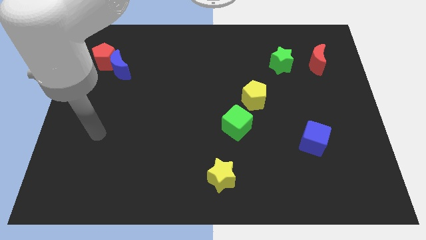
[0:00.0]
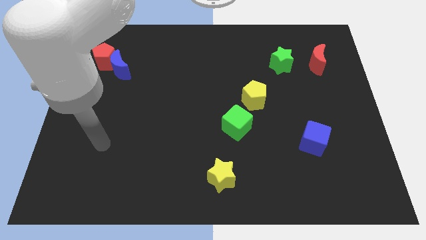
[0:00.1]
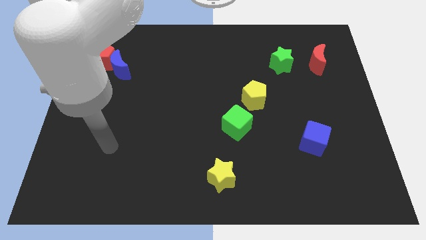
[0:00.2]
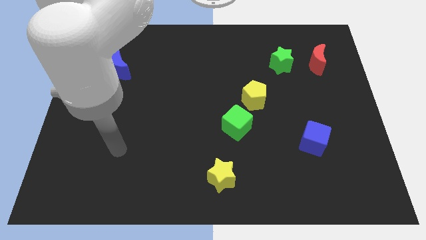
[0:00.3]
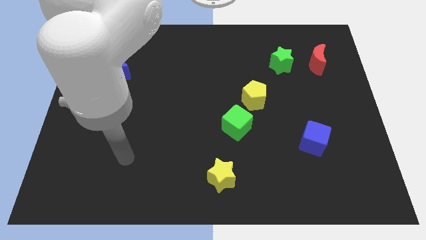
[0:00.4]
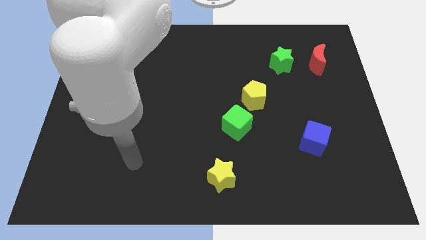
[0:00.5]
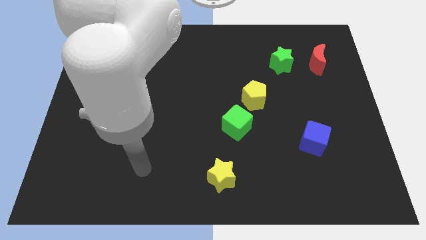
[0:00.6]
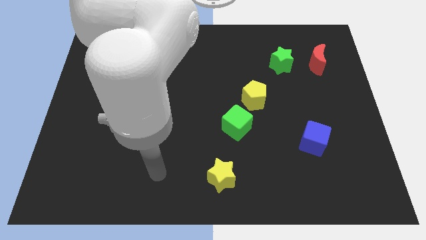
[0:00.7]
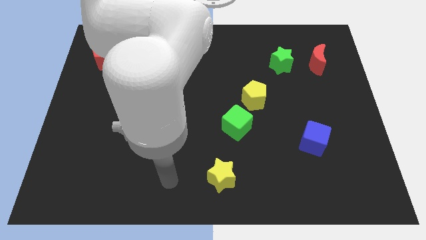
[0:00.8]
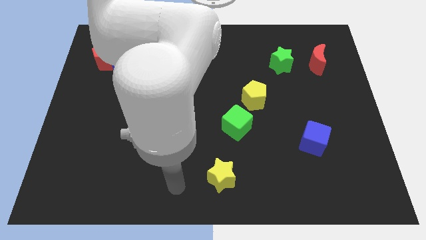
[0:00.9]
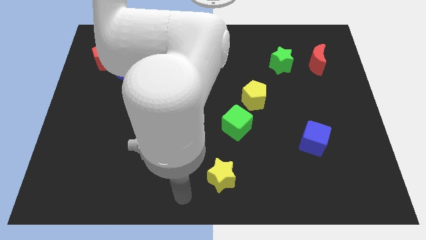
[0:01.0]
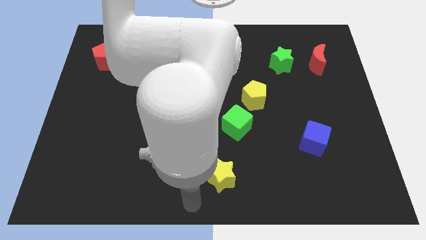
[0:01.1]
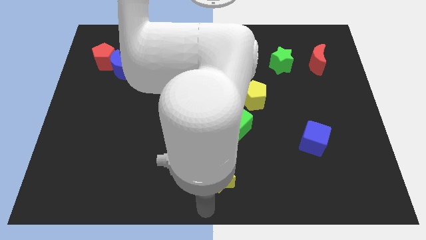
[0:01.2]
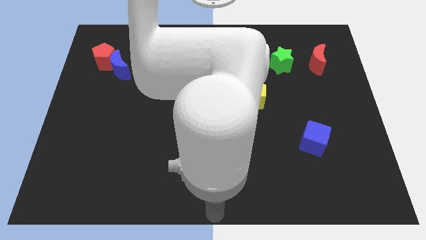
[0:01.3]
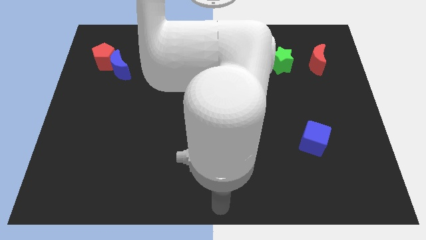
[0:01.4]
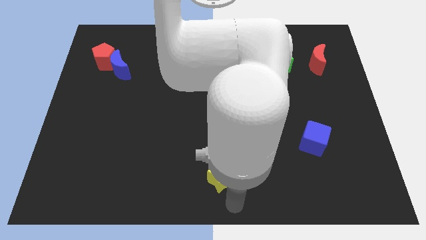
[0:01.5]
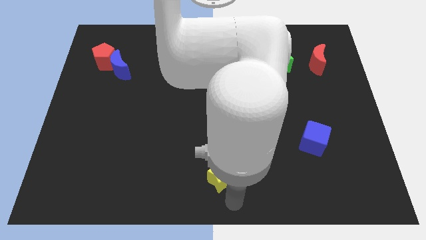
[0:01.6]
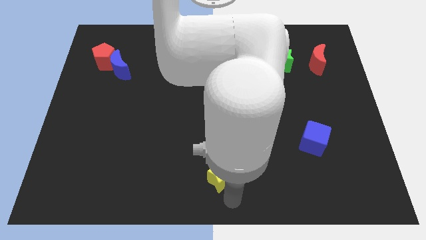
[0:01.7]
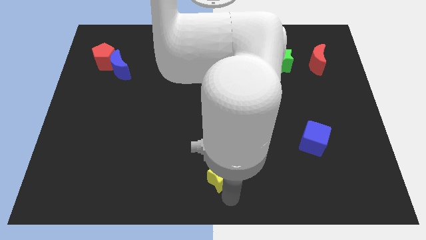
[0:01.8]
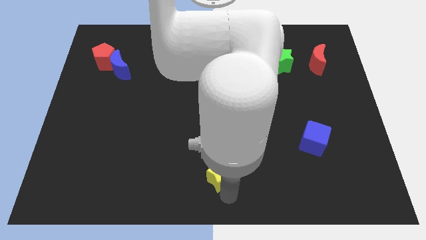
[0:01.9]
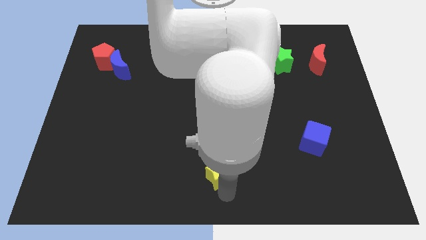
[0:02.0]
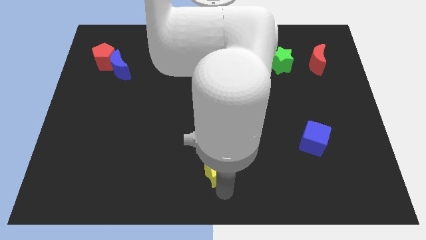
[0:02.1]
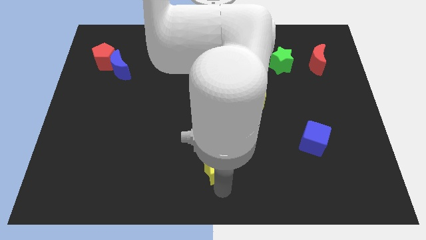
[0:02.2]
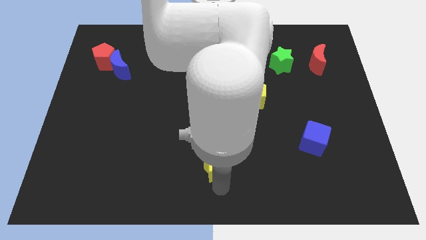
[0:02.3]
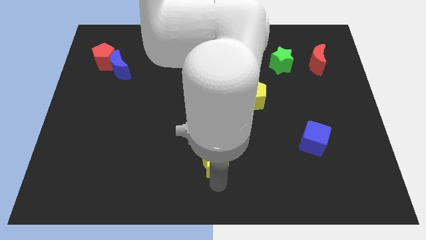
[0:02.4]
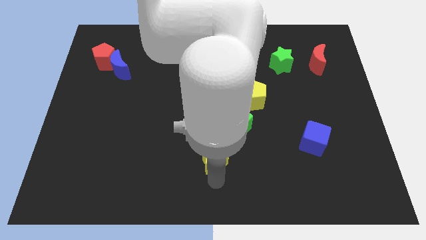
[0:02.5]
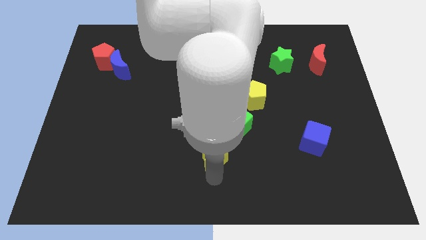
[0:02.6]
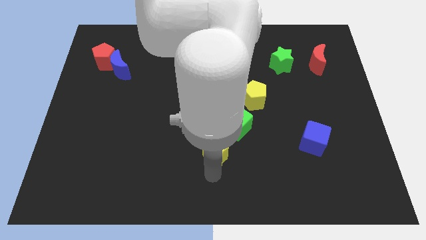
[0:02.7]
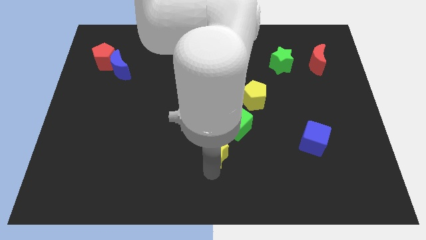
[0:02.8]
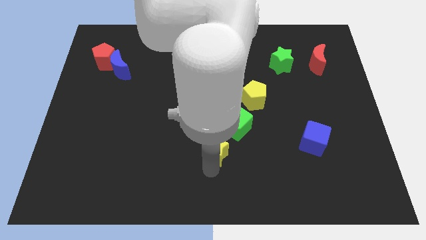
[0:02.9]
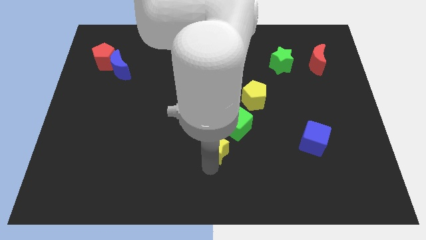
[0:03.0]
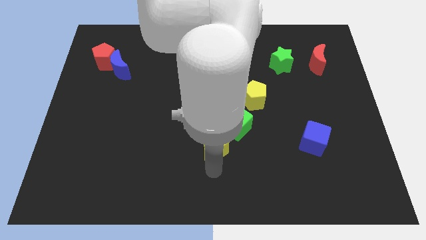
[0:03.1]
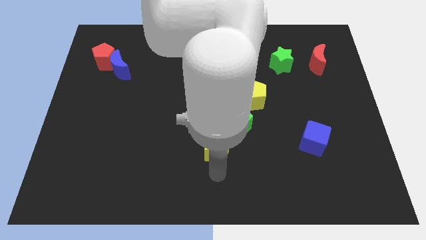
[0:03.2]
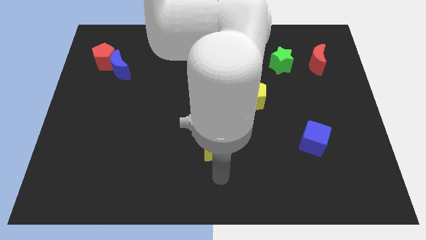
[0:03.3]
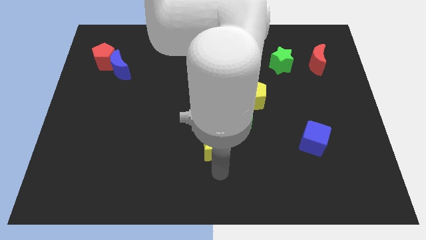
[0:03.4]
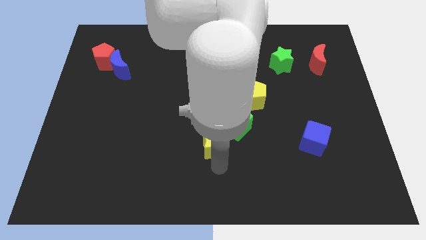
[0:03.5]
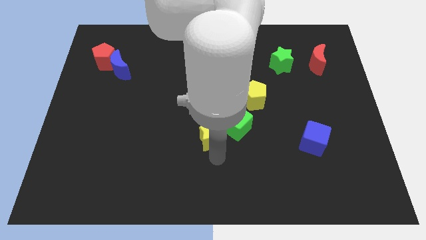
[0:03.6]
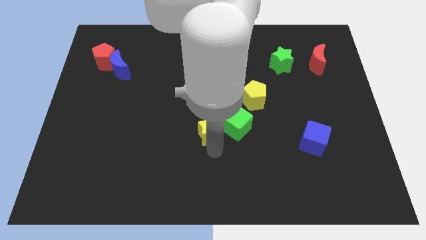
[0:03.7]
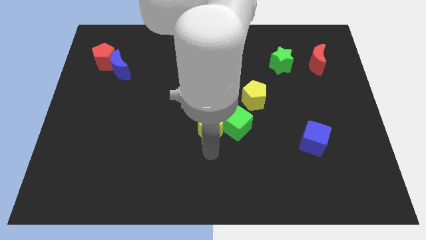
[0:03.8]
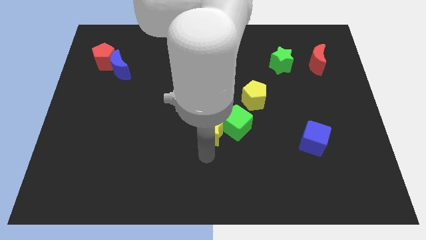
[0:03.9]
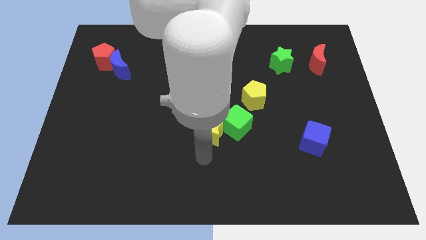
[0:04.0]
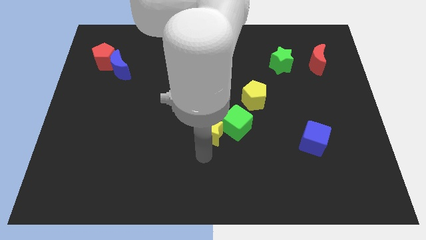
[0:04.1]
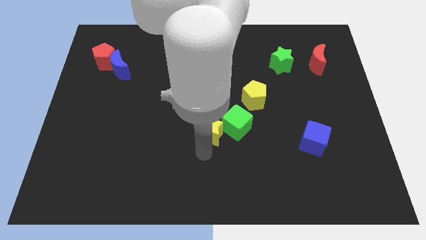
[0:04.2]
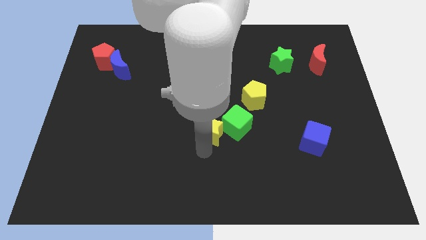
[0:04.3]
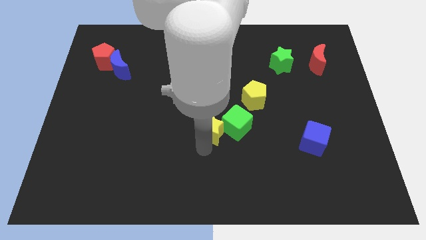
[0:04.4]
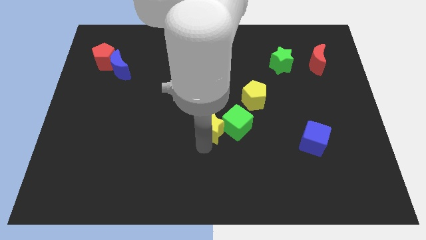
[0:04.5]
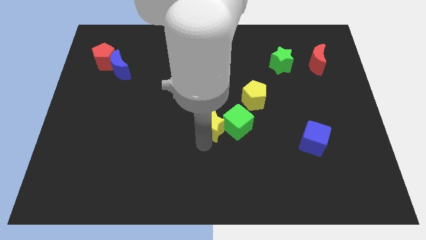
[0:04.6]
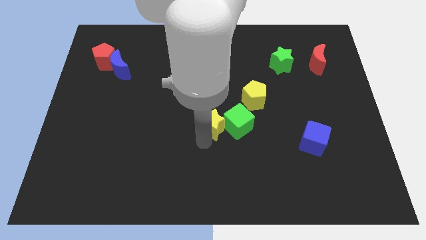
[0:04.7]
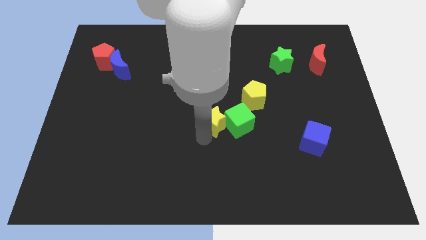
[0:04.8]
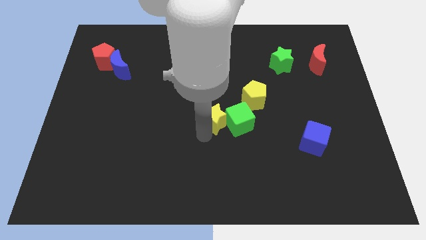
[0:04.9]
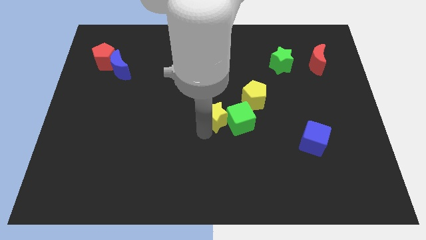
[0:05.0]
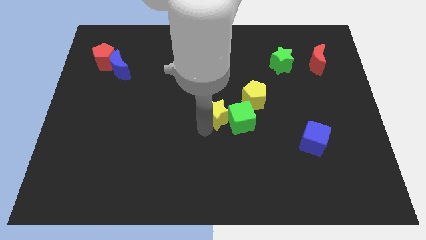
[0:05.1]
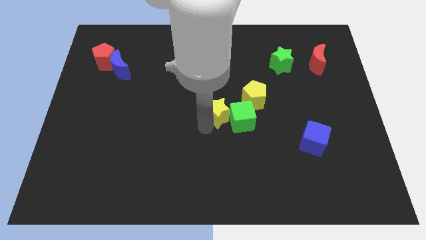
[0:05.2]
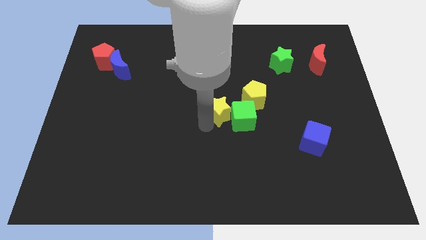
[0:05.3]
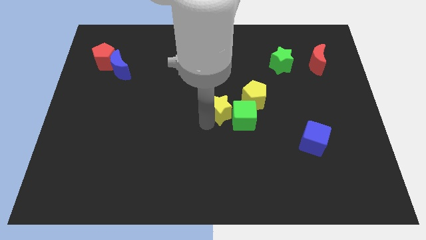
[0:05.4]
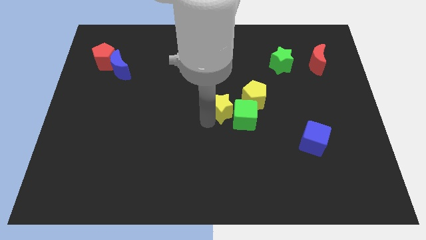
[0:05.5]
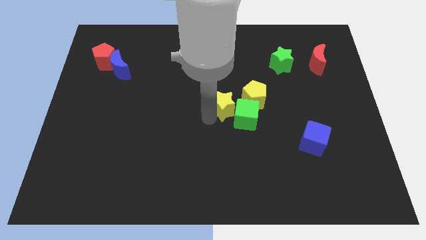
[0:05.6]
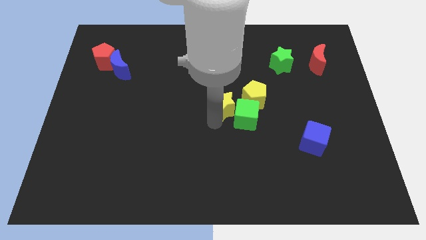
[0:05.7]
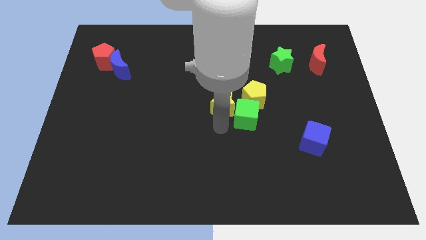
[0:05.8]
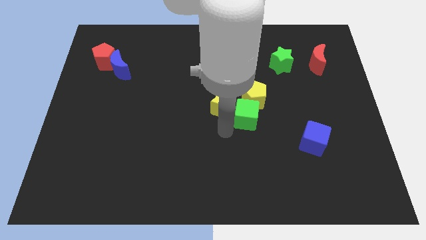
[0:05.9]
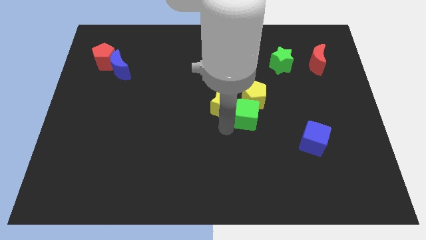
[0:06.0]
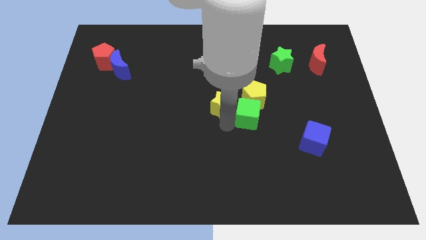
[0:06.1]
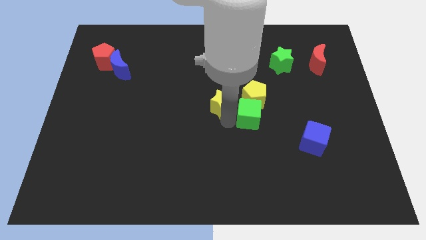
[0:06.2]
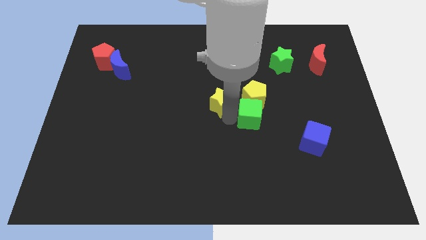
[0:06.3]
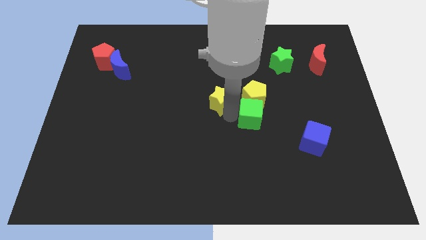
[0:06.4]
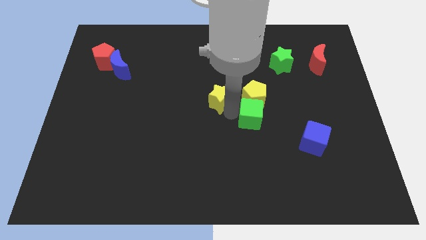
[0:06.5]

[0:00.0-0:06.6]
slide the yellow star upwards

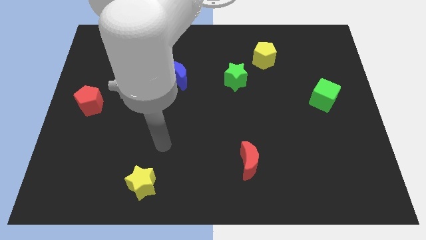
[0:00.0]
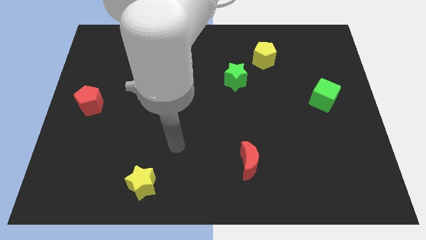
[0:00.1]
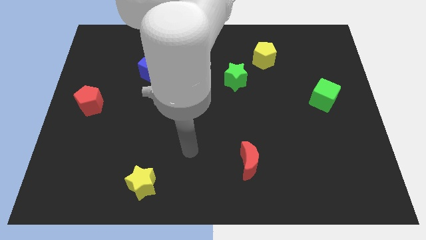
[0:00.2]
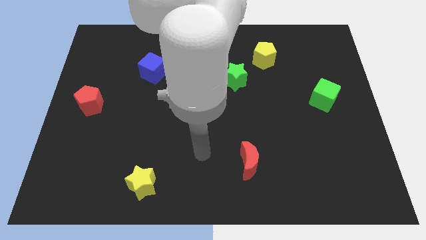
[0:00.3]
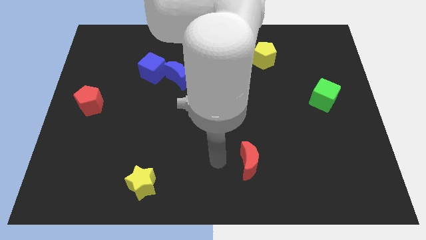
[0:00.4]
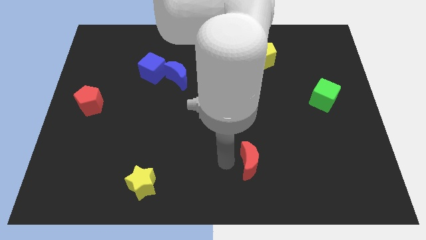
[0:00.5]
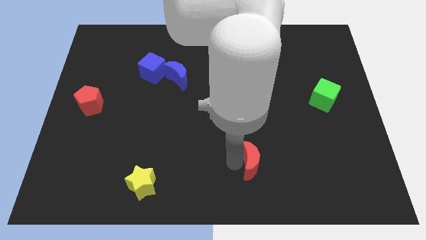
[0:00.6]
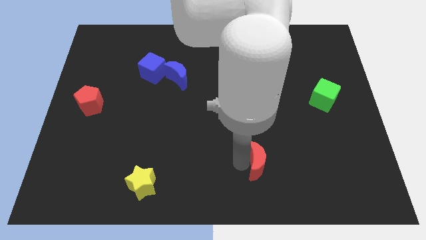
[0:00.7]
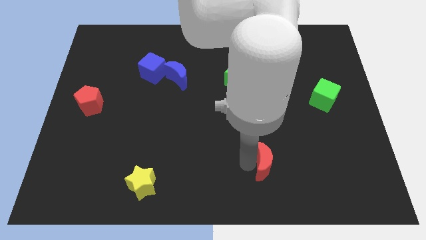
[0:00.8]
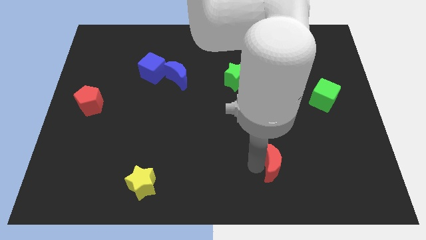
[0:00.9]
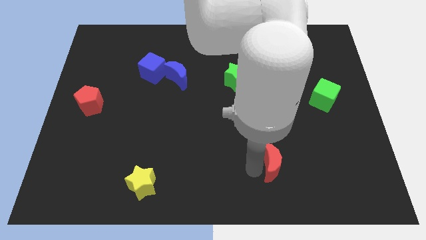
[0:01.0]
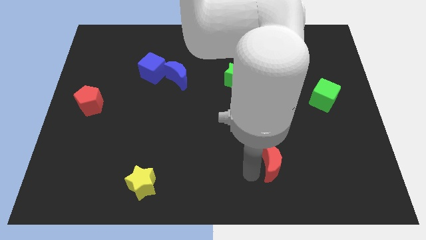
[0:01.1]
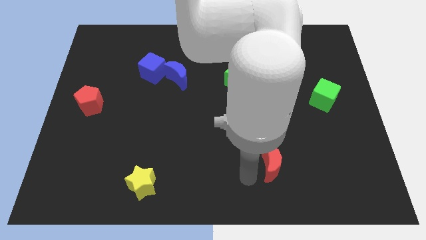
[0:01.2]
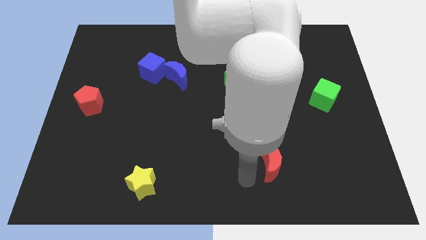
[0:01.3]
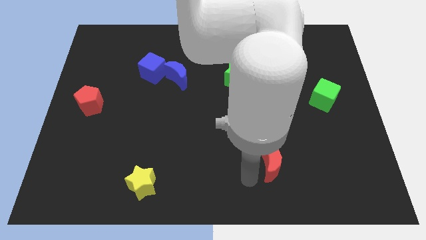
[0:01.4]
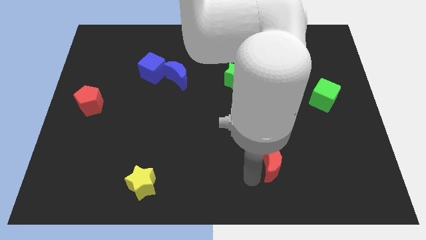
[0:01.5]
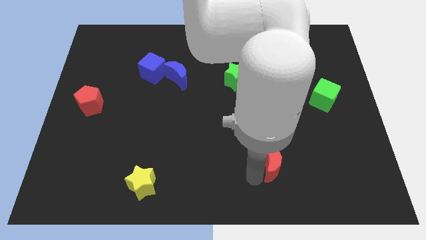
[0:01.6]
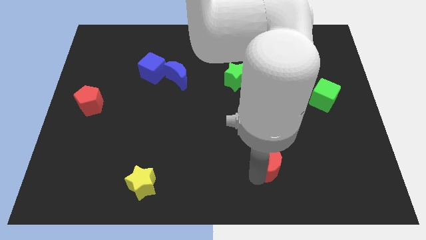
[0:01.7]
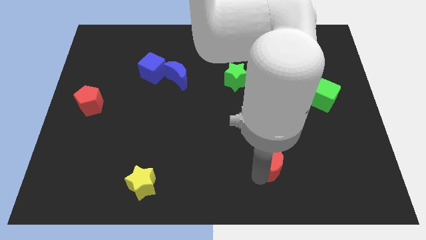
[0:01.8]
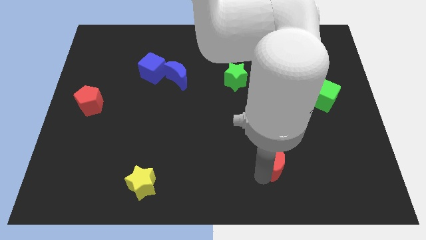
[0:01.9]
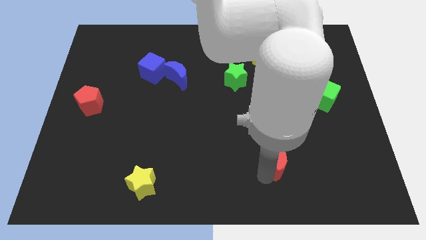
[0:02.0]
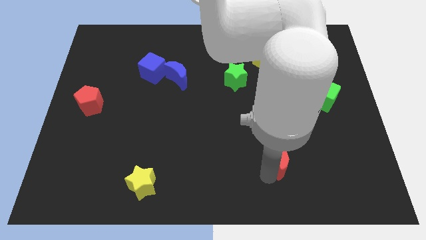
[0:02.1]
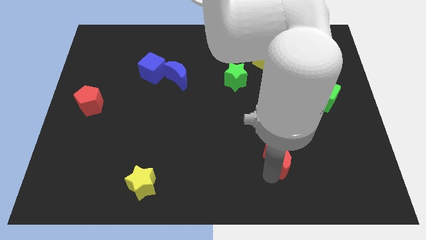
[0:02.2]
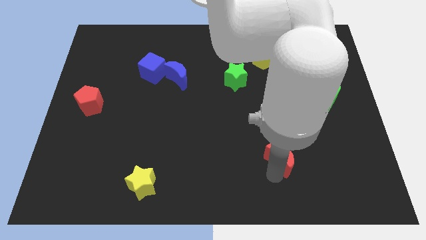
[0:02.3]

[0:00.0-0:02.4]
move the red moon right a little
